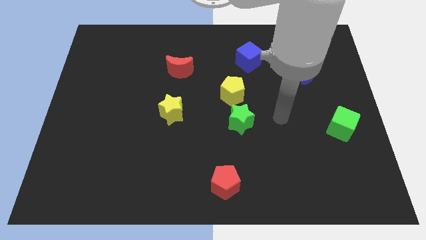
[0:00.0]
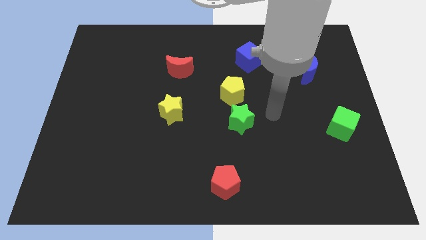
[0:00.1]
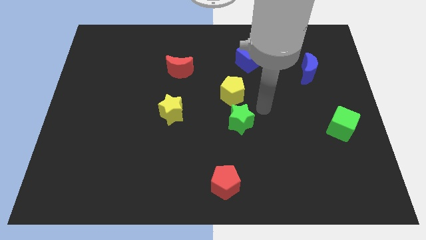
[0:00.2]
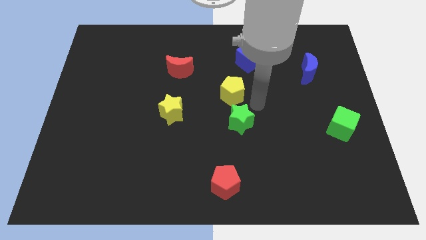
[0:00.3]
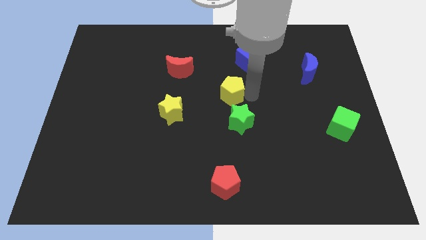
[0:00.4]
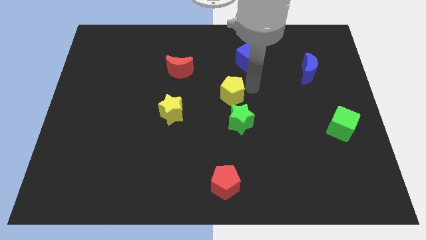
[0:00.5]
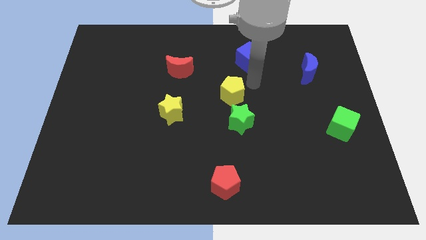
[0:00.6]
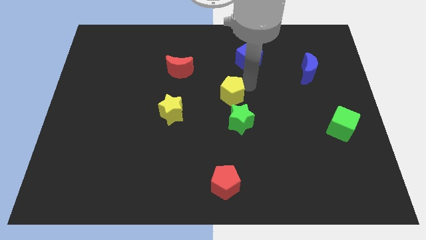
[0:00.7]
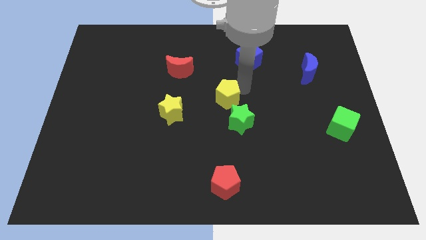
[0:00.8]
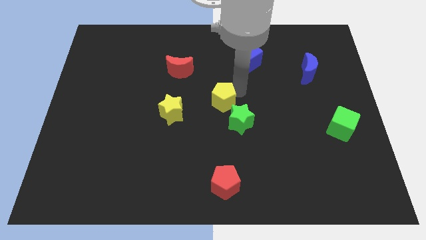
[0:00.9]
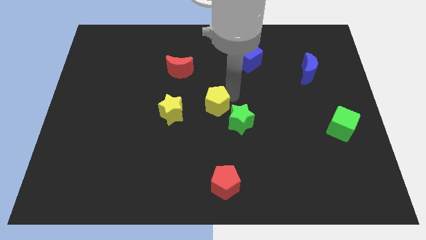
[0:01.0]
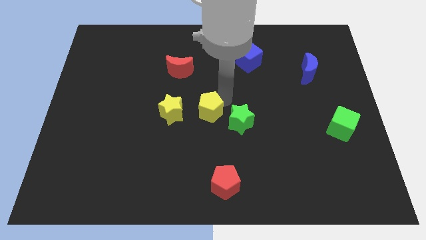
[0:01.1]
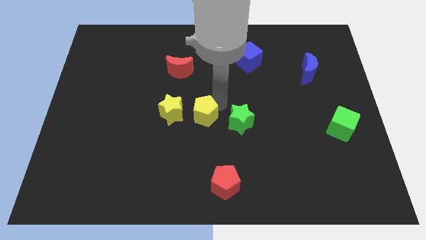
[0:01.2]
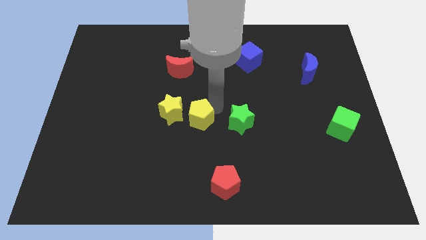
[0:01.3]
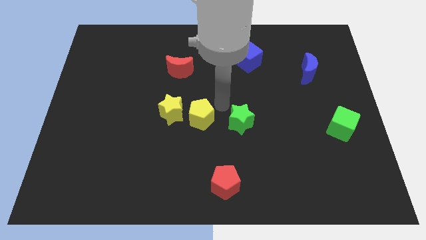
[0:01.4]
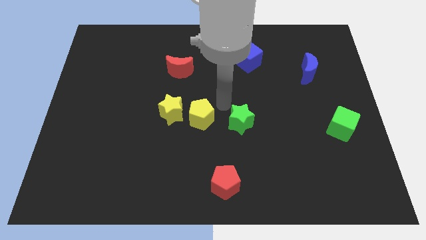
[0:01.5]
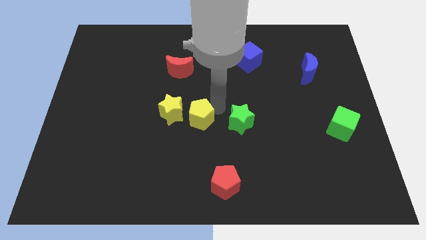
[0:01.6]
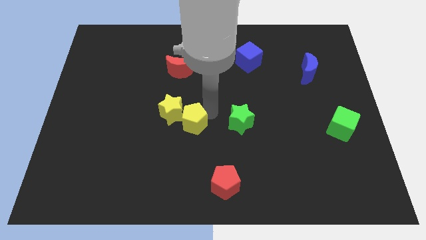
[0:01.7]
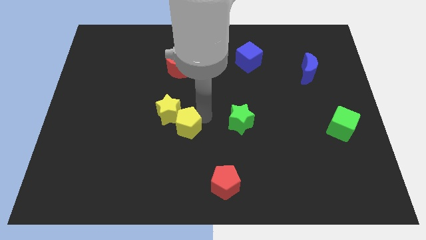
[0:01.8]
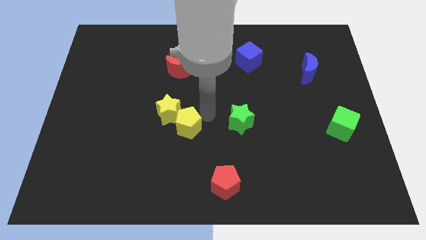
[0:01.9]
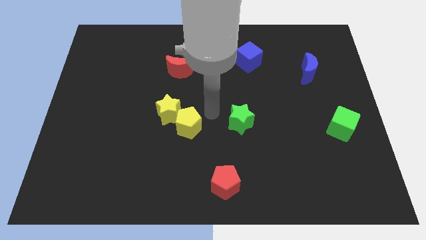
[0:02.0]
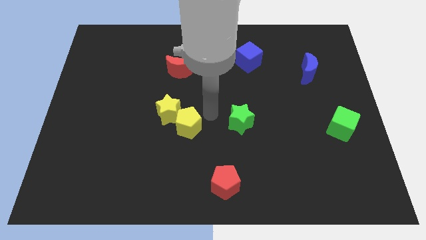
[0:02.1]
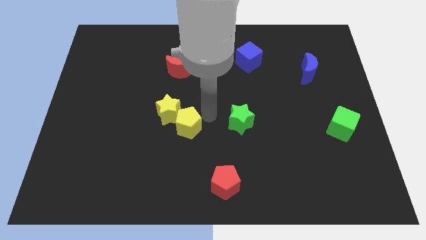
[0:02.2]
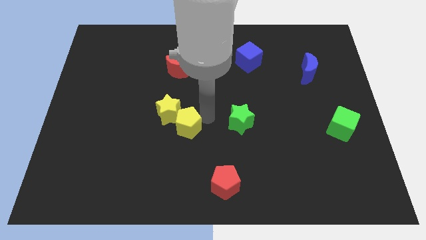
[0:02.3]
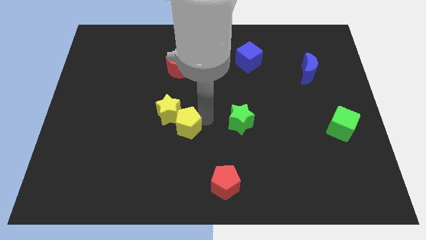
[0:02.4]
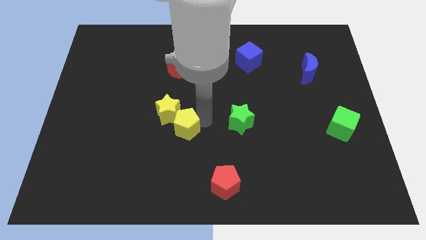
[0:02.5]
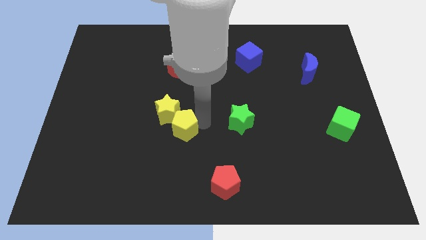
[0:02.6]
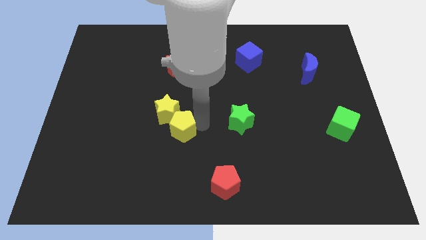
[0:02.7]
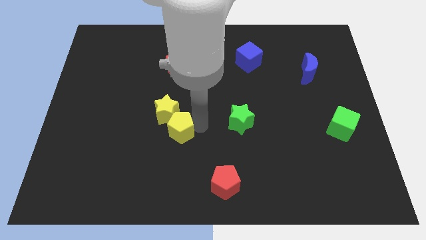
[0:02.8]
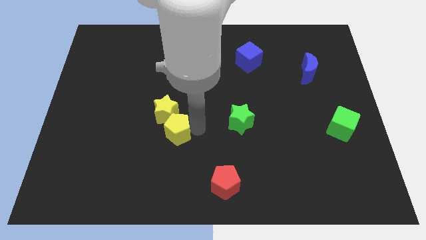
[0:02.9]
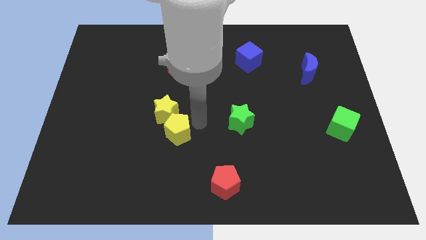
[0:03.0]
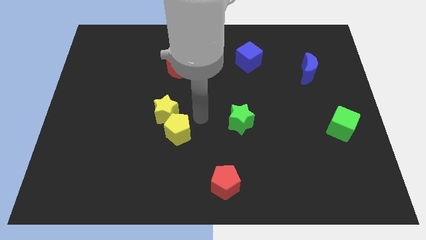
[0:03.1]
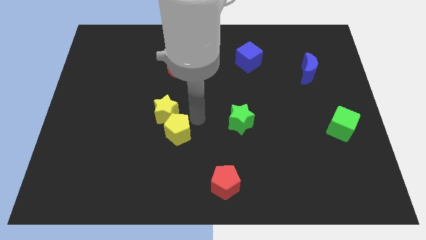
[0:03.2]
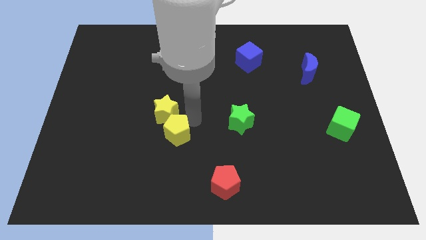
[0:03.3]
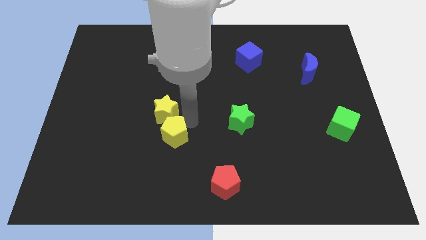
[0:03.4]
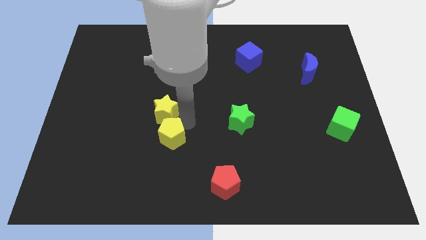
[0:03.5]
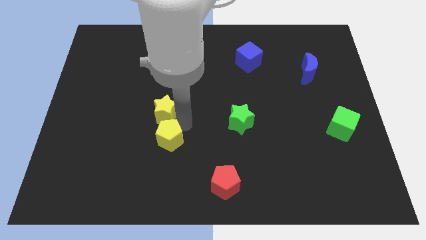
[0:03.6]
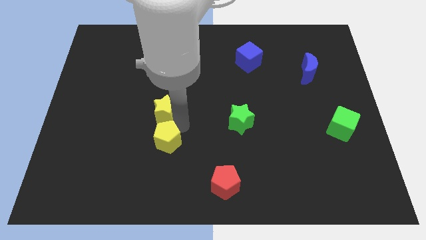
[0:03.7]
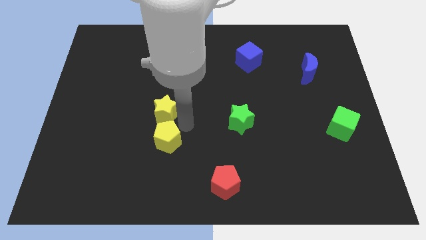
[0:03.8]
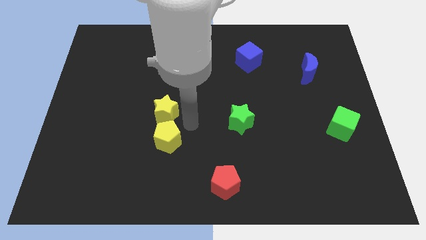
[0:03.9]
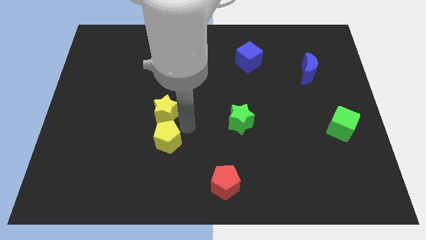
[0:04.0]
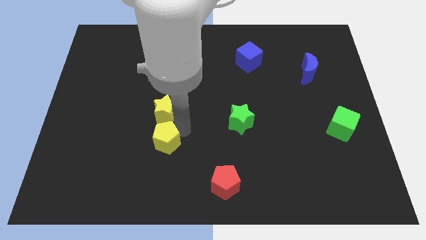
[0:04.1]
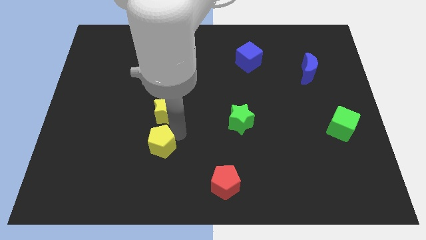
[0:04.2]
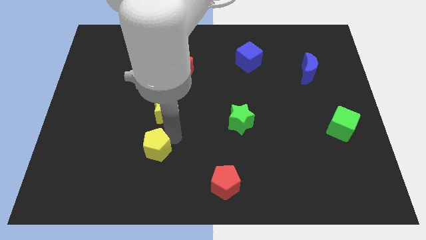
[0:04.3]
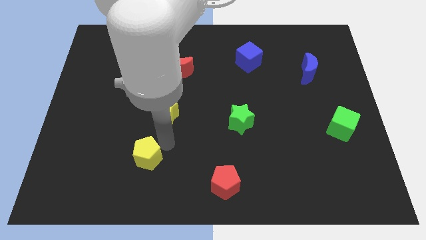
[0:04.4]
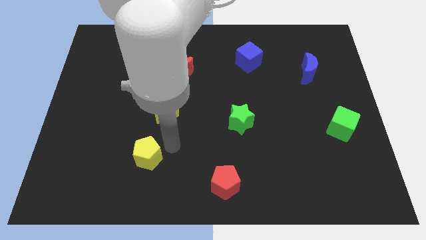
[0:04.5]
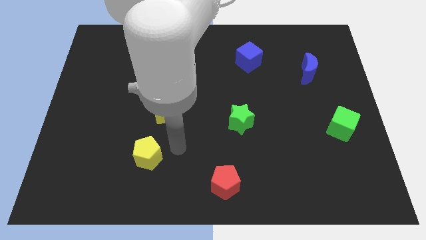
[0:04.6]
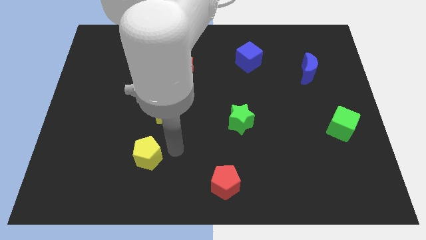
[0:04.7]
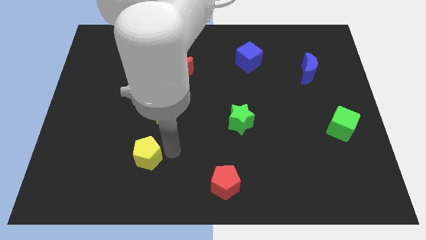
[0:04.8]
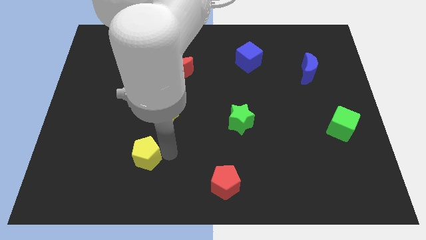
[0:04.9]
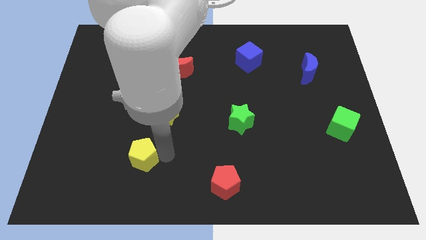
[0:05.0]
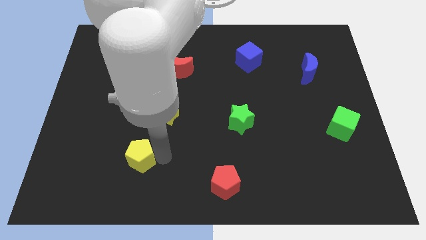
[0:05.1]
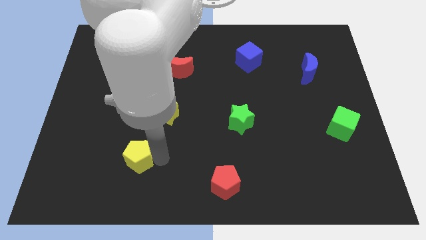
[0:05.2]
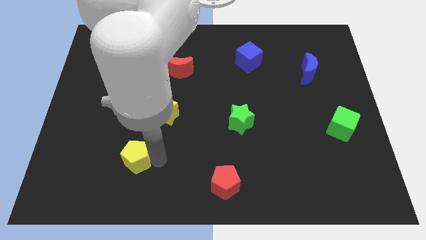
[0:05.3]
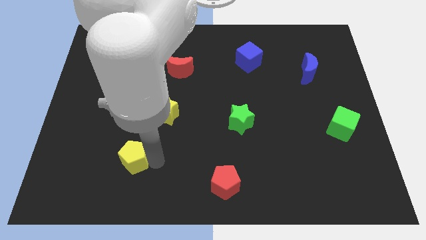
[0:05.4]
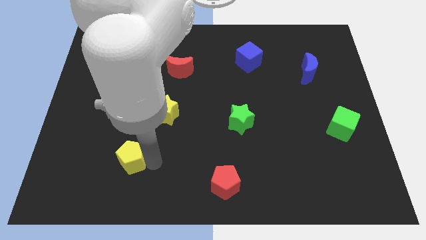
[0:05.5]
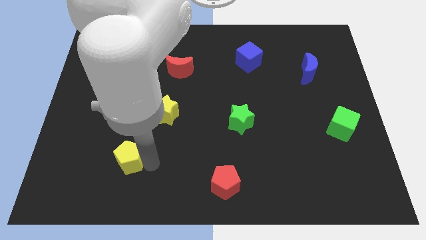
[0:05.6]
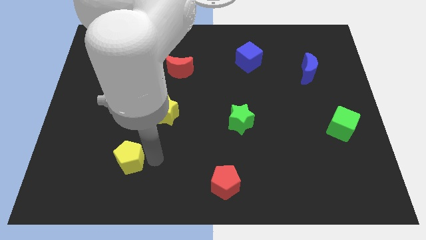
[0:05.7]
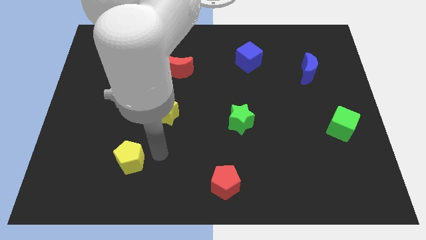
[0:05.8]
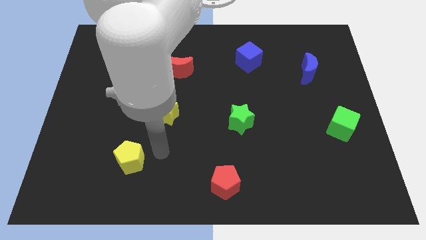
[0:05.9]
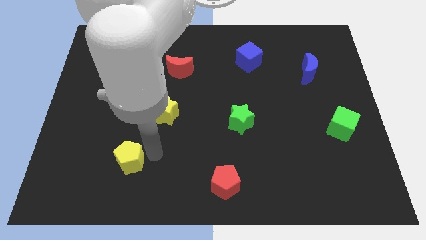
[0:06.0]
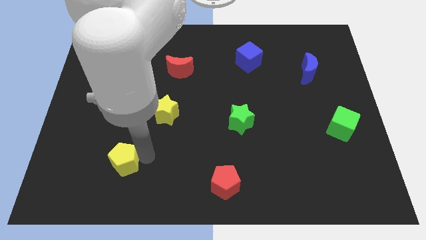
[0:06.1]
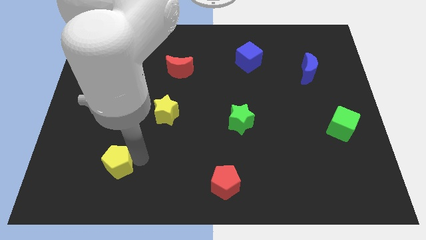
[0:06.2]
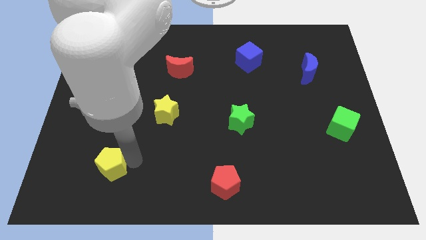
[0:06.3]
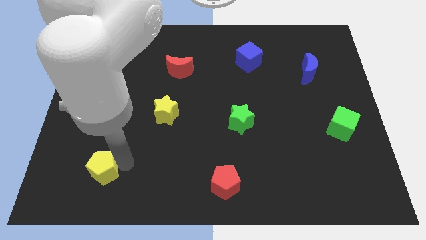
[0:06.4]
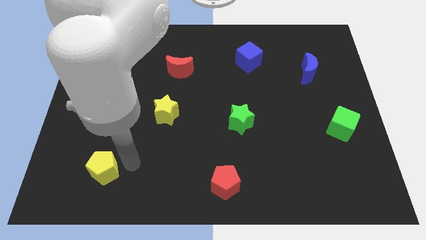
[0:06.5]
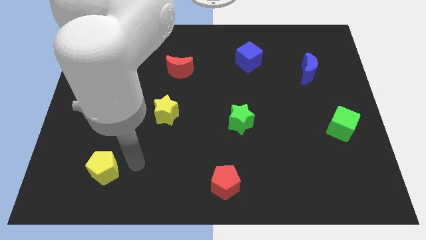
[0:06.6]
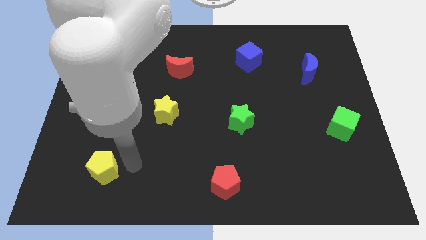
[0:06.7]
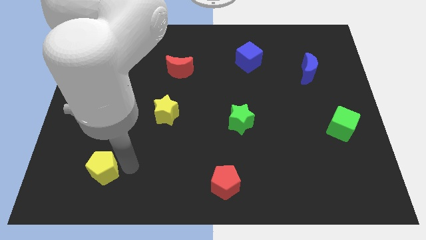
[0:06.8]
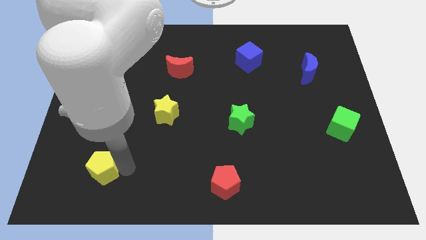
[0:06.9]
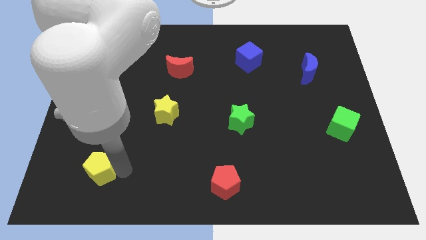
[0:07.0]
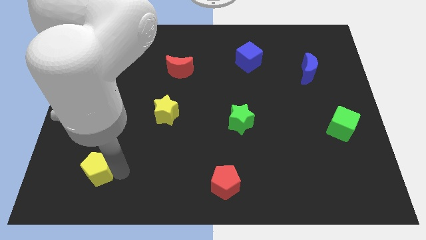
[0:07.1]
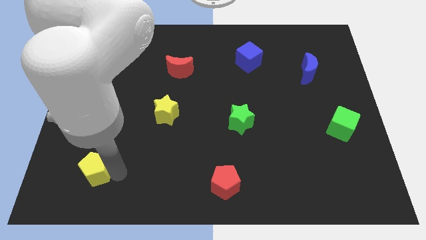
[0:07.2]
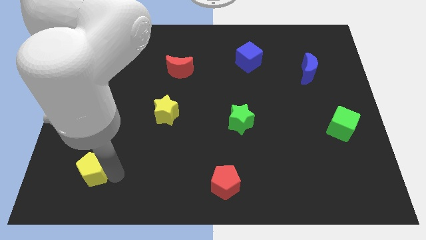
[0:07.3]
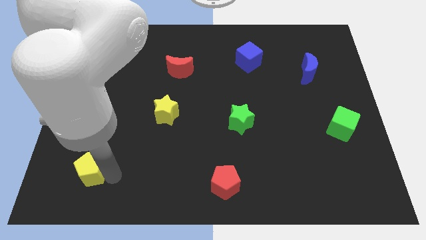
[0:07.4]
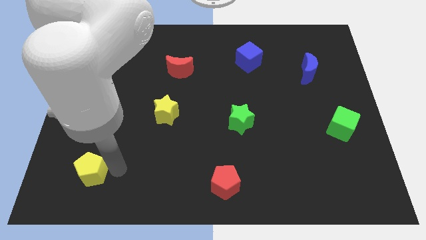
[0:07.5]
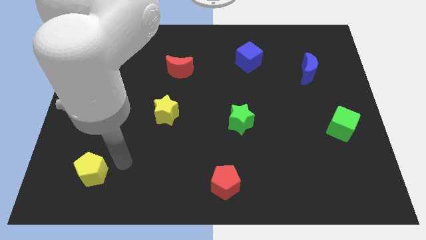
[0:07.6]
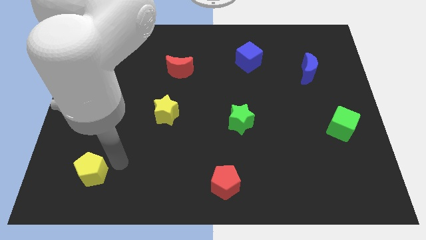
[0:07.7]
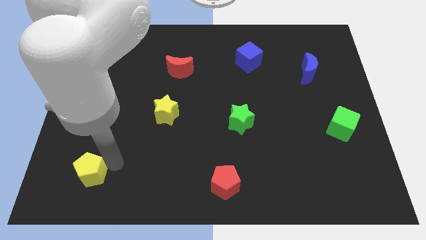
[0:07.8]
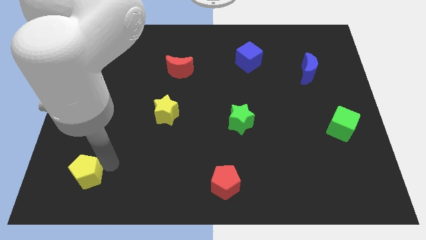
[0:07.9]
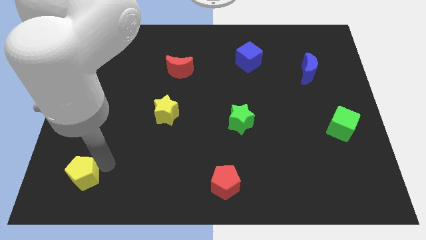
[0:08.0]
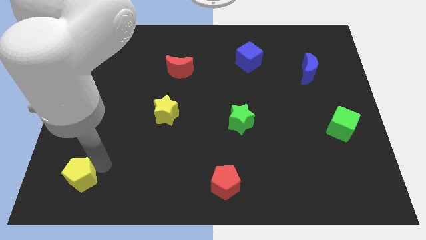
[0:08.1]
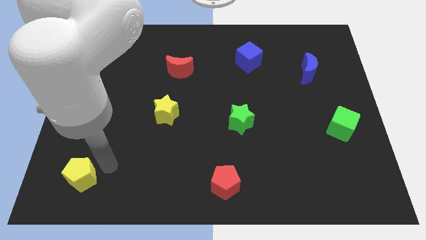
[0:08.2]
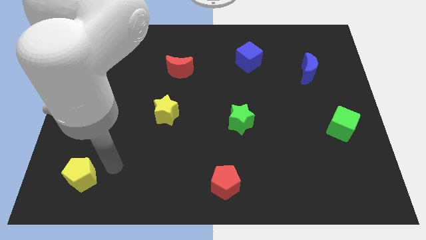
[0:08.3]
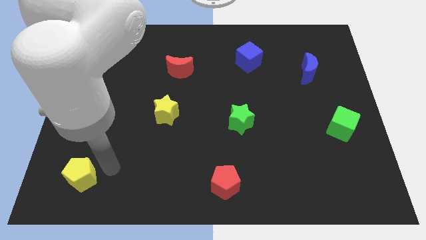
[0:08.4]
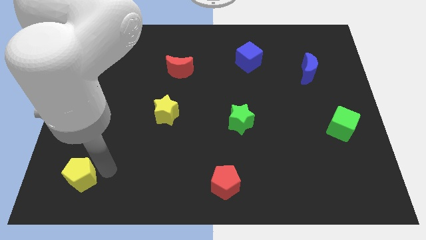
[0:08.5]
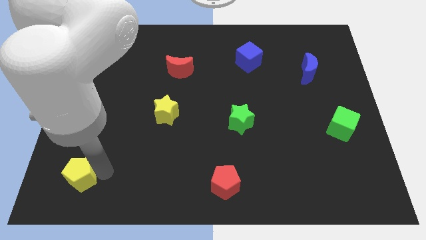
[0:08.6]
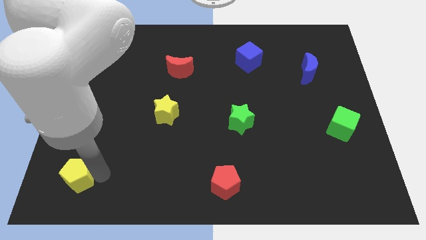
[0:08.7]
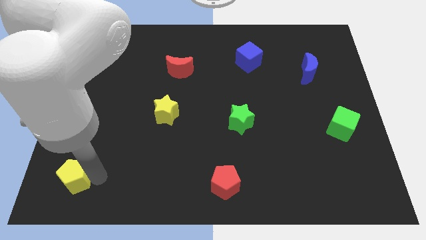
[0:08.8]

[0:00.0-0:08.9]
slide the yellow pentagon to the lower left corner
